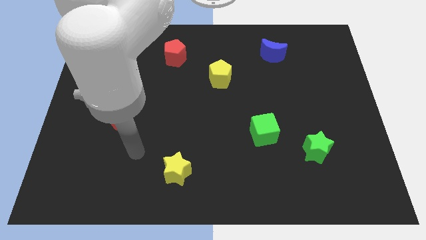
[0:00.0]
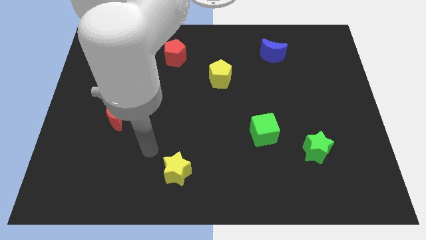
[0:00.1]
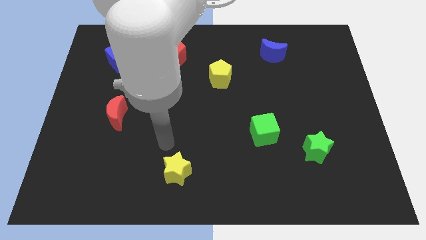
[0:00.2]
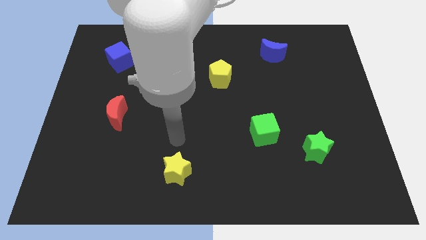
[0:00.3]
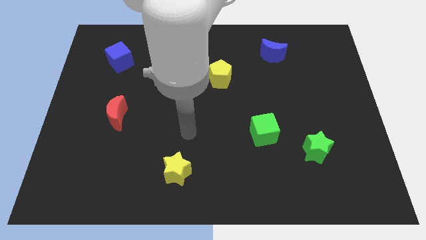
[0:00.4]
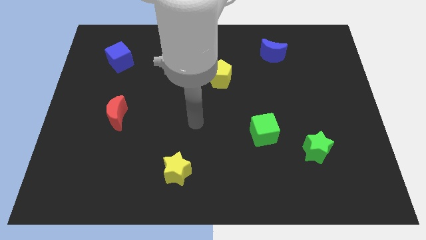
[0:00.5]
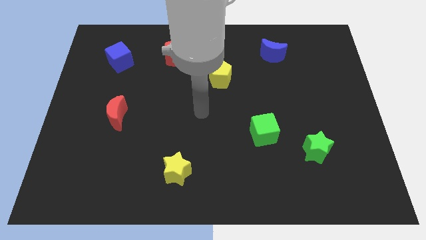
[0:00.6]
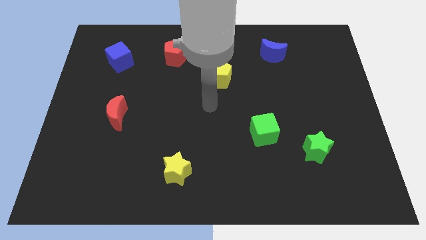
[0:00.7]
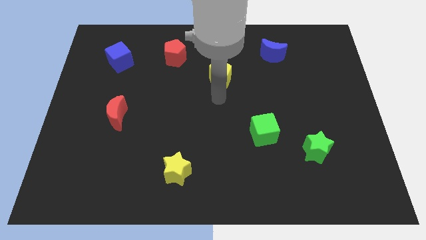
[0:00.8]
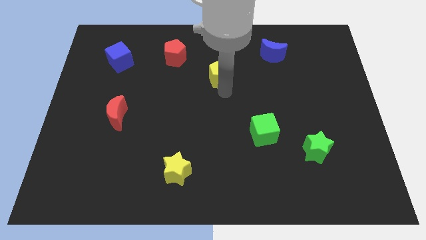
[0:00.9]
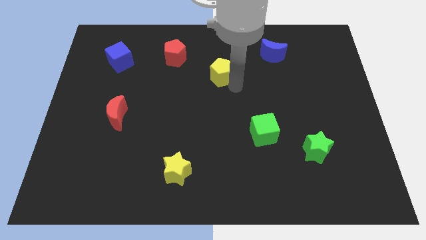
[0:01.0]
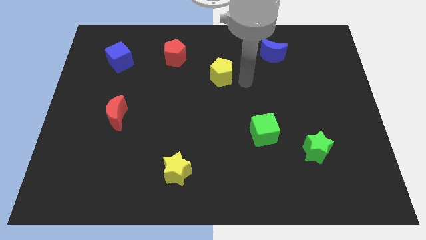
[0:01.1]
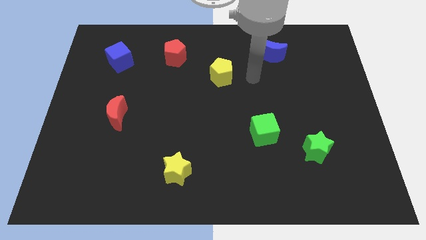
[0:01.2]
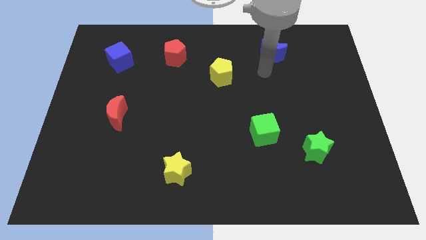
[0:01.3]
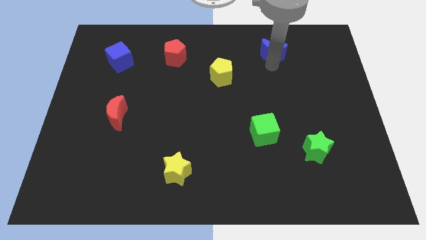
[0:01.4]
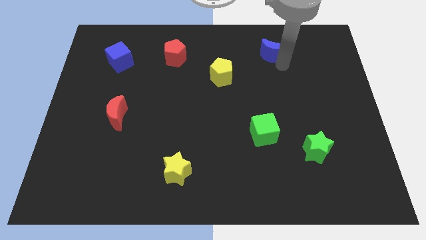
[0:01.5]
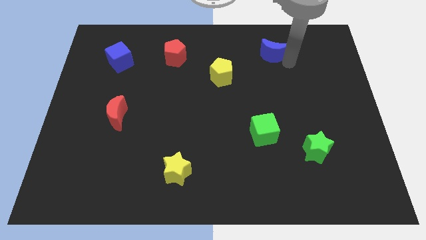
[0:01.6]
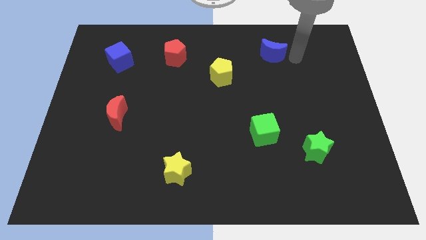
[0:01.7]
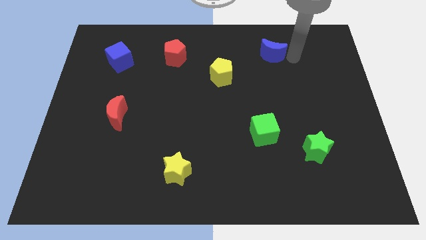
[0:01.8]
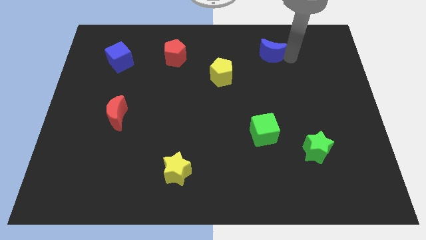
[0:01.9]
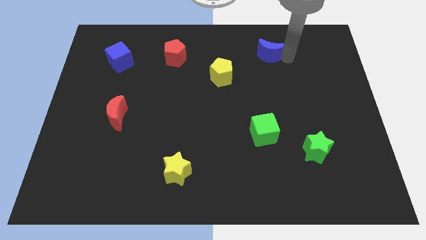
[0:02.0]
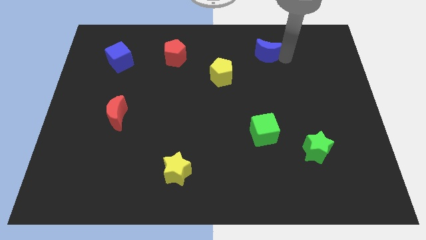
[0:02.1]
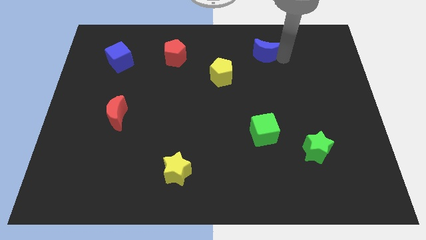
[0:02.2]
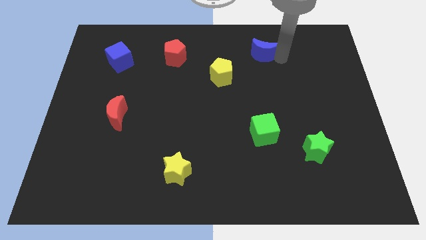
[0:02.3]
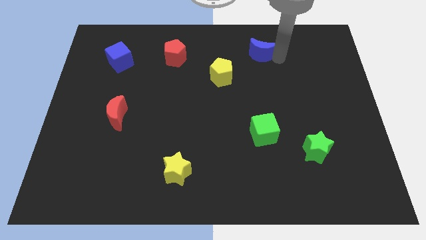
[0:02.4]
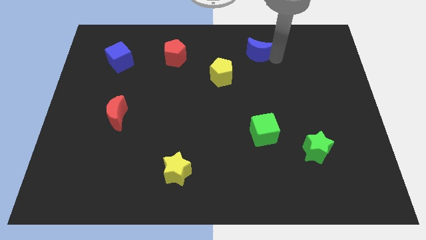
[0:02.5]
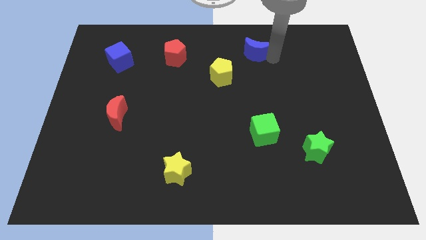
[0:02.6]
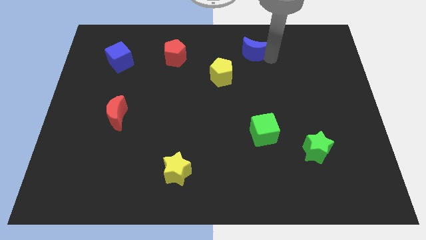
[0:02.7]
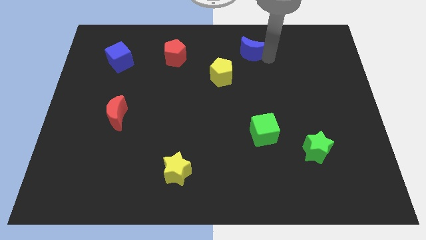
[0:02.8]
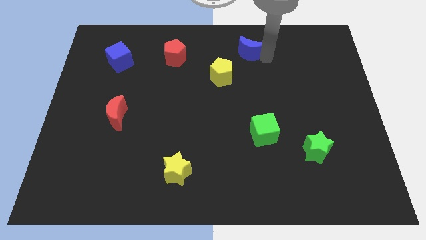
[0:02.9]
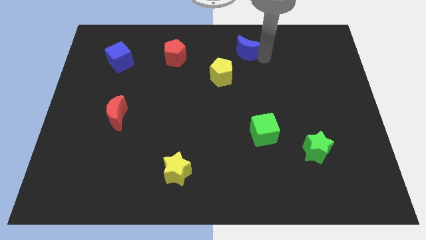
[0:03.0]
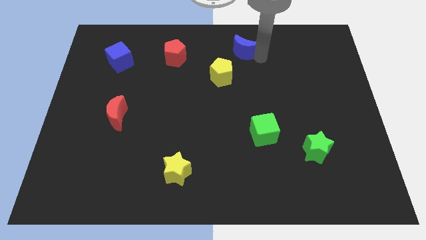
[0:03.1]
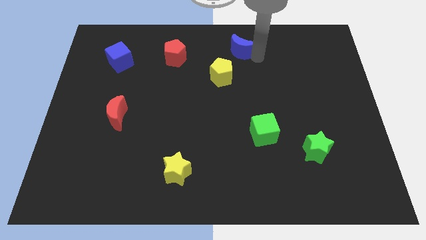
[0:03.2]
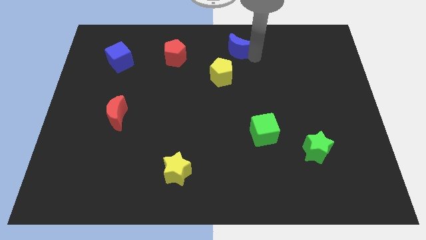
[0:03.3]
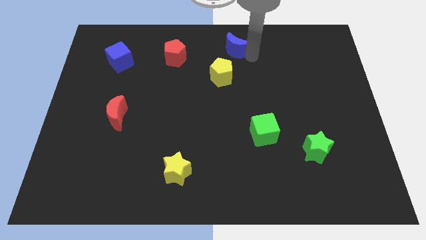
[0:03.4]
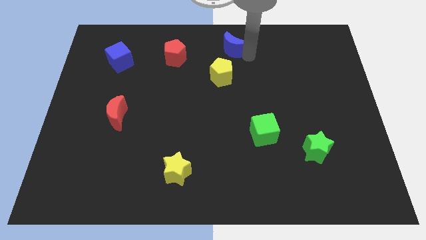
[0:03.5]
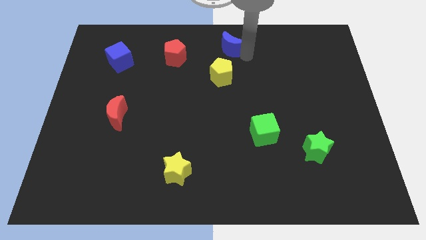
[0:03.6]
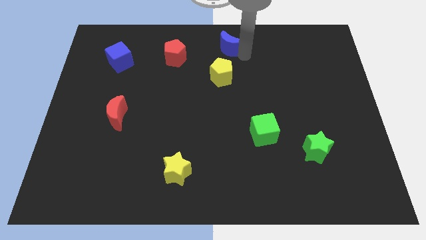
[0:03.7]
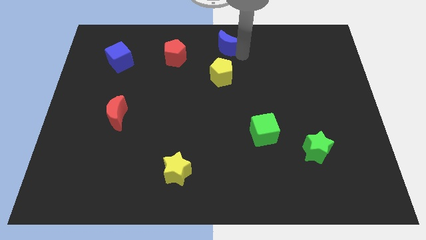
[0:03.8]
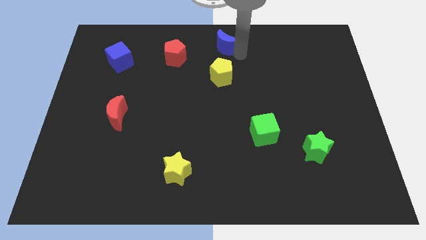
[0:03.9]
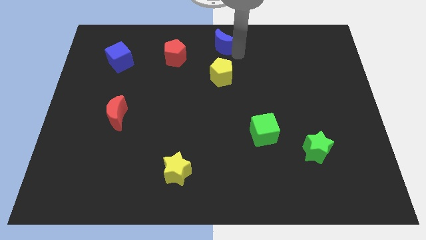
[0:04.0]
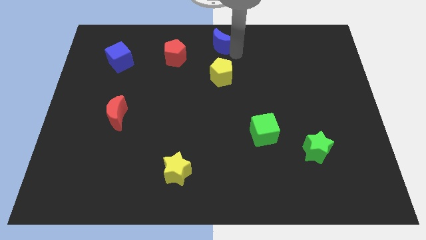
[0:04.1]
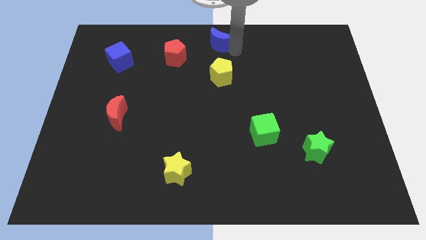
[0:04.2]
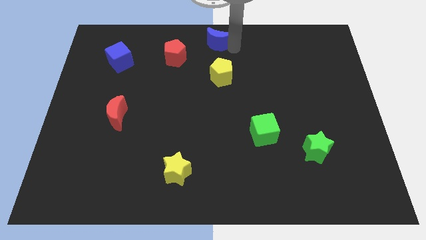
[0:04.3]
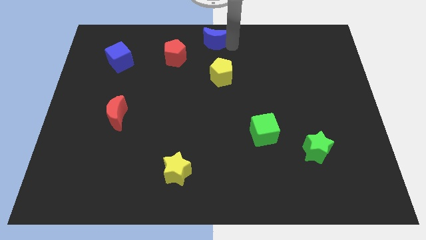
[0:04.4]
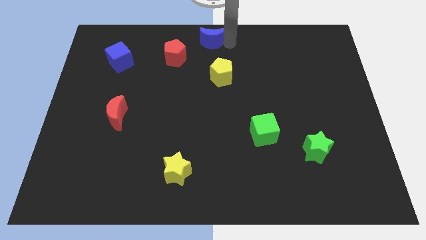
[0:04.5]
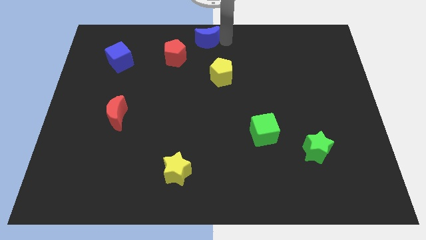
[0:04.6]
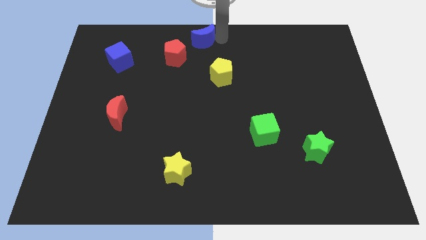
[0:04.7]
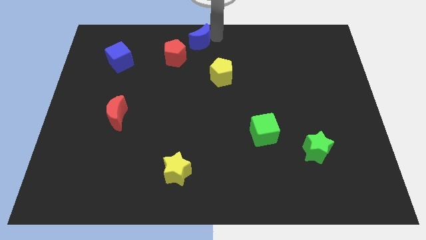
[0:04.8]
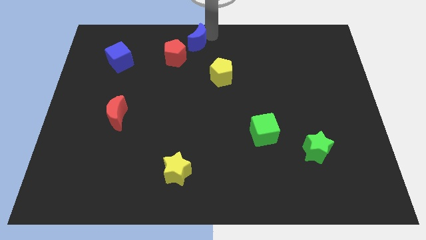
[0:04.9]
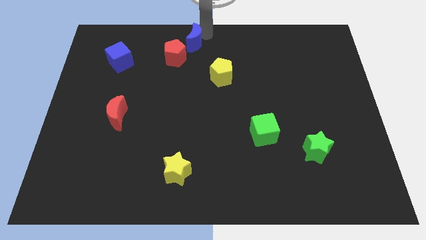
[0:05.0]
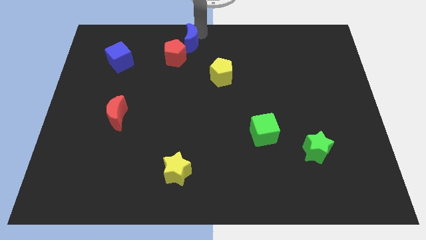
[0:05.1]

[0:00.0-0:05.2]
push the blue moon left

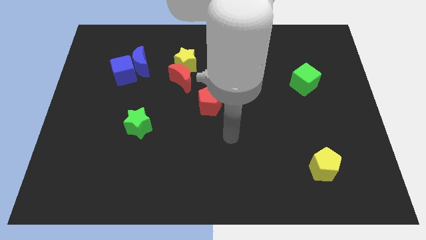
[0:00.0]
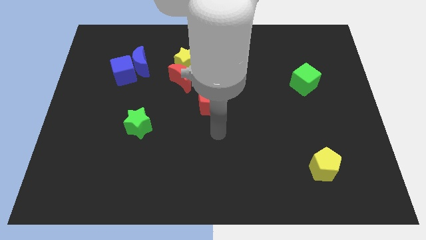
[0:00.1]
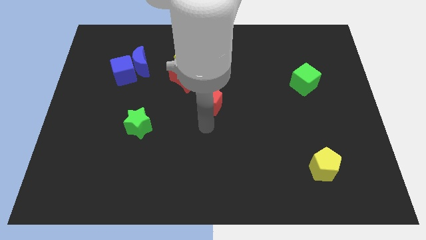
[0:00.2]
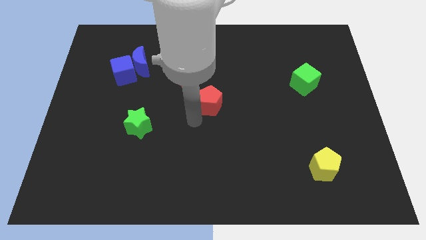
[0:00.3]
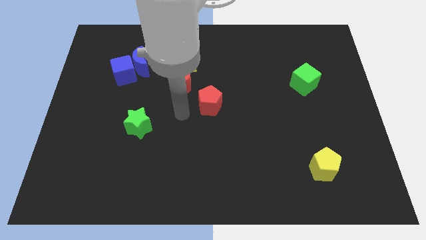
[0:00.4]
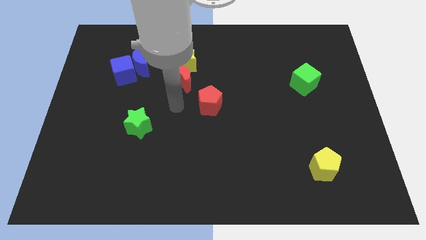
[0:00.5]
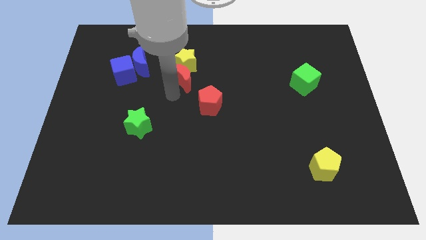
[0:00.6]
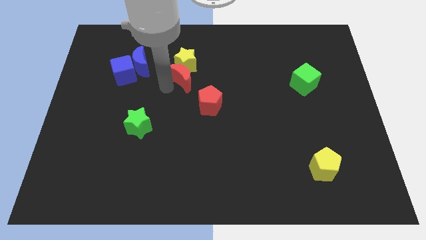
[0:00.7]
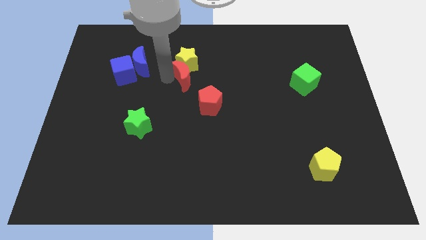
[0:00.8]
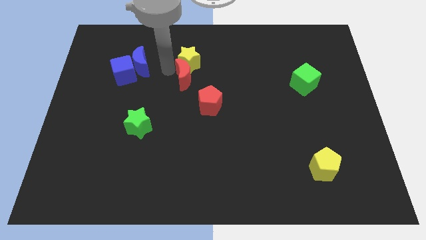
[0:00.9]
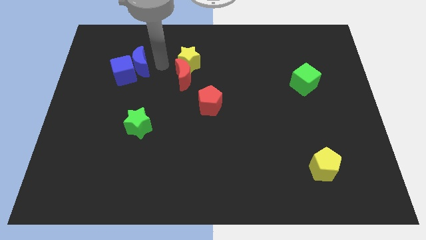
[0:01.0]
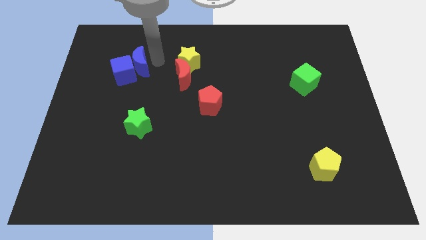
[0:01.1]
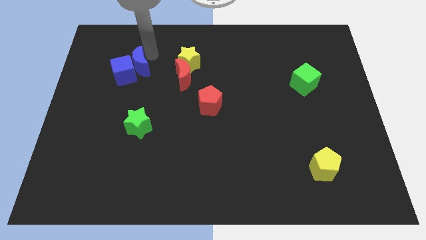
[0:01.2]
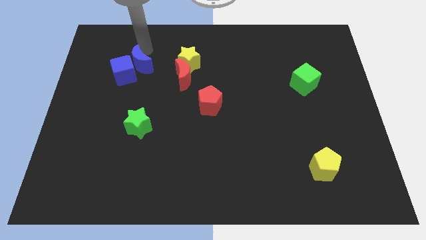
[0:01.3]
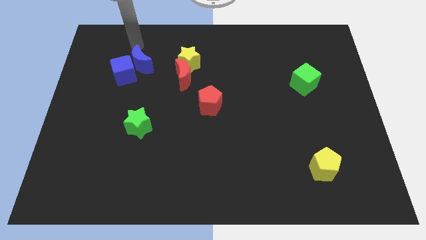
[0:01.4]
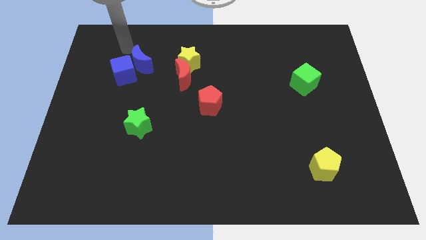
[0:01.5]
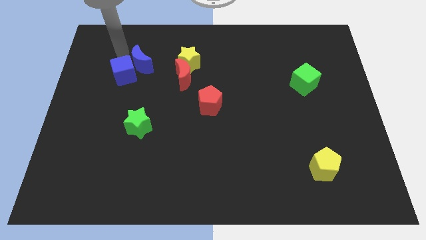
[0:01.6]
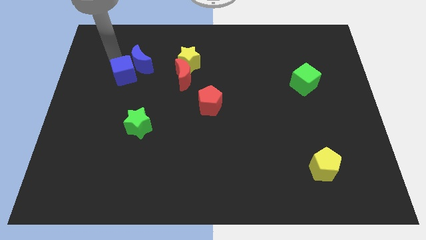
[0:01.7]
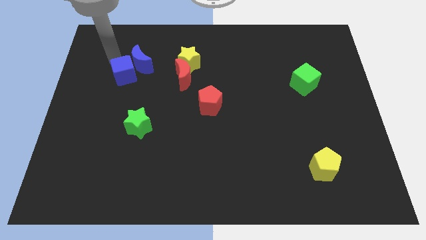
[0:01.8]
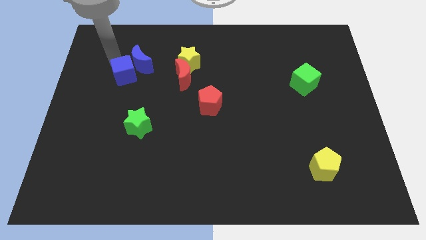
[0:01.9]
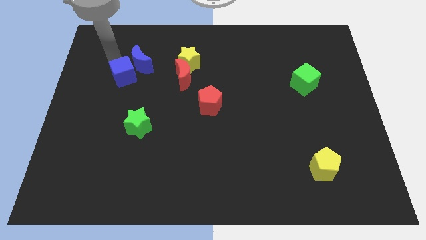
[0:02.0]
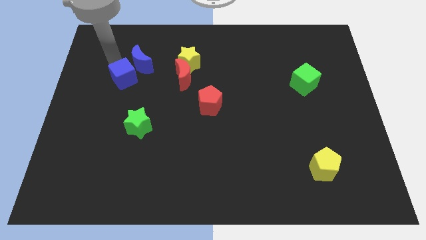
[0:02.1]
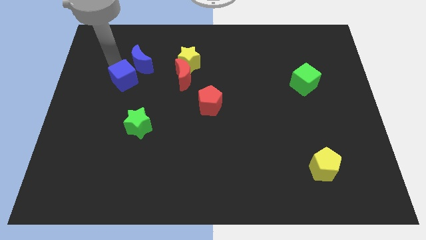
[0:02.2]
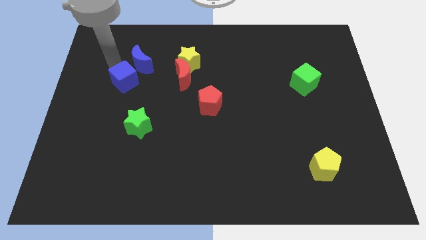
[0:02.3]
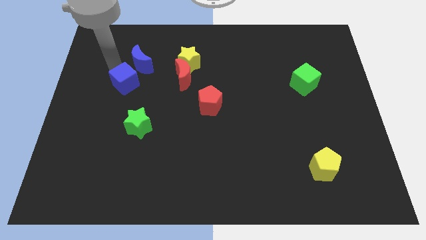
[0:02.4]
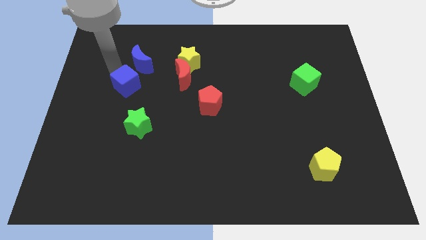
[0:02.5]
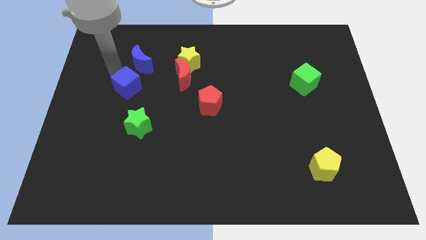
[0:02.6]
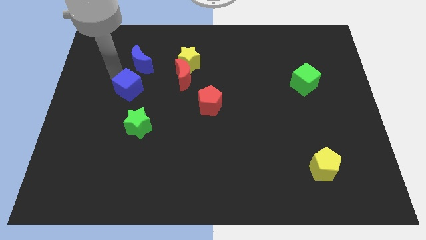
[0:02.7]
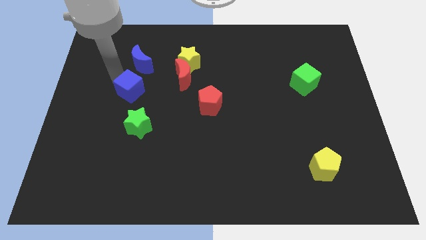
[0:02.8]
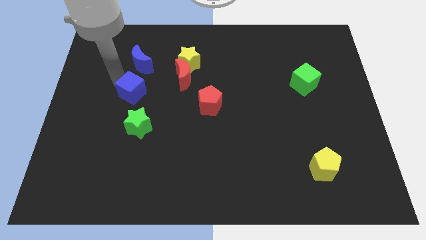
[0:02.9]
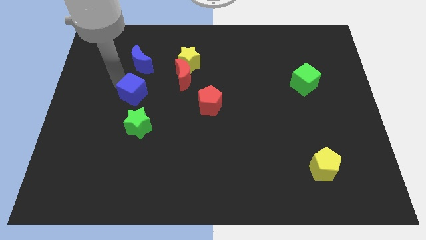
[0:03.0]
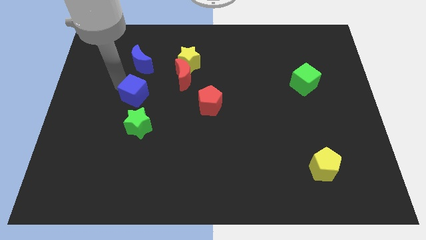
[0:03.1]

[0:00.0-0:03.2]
push the blue cube a little downwards and then right
